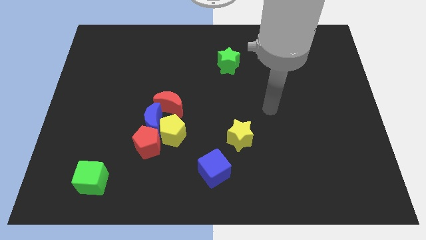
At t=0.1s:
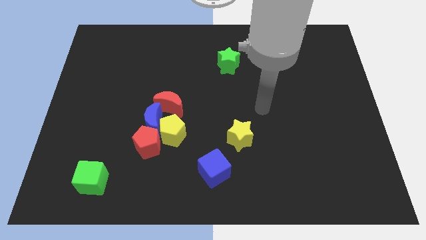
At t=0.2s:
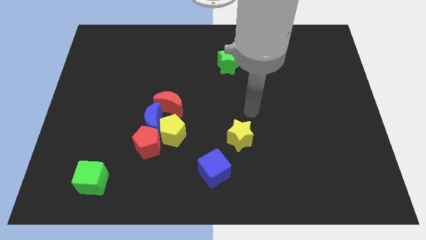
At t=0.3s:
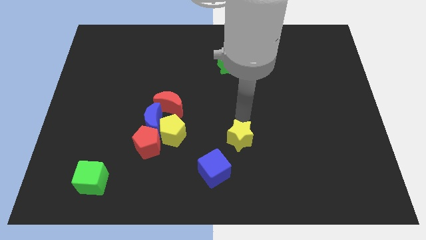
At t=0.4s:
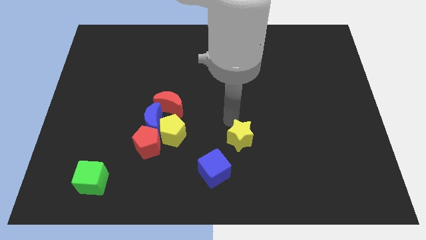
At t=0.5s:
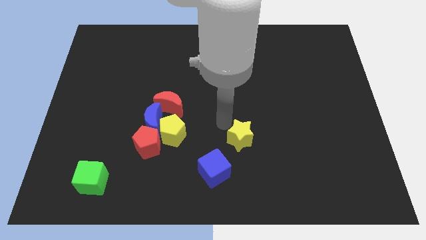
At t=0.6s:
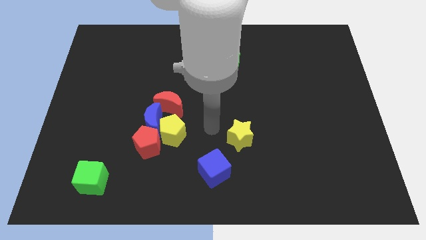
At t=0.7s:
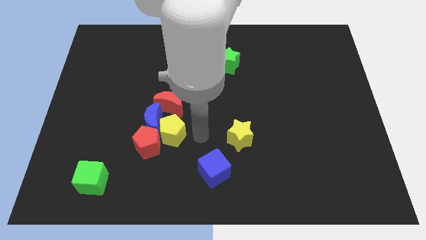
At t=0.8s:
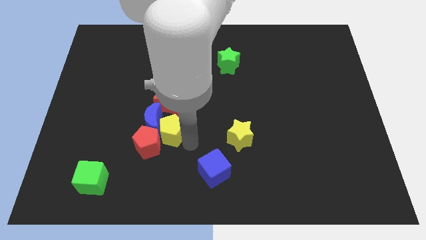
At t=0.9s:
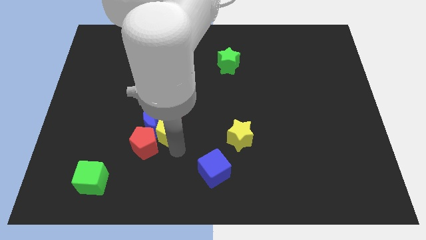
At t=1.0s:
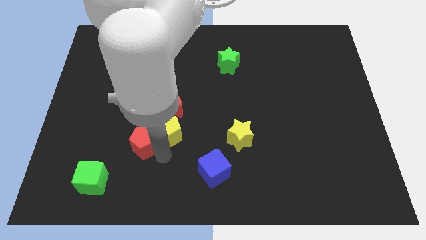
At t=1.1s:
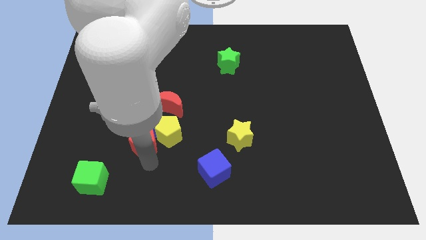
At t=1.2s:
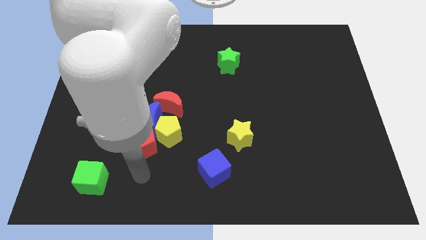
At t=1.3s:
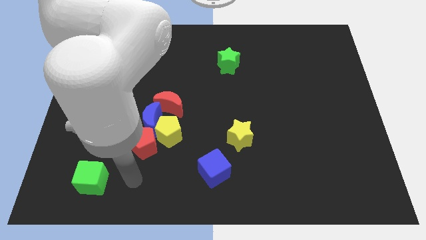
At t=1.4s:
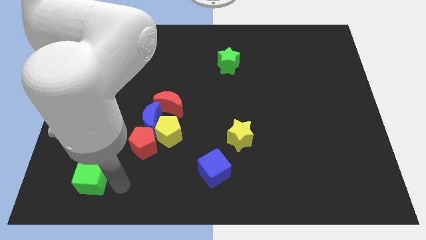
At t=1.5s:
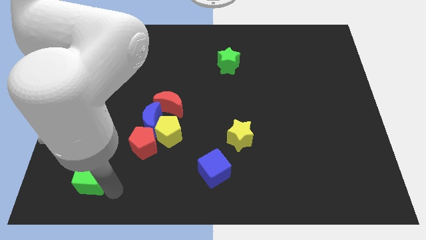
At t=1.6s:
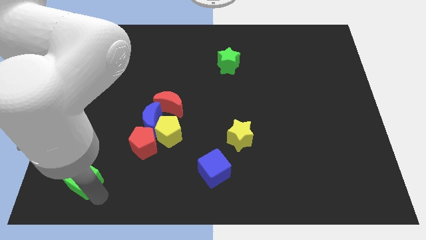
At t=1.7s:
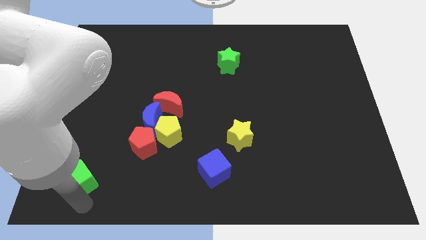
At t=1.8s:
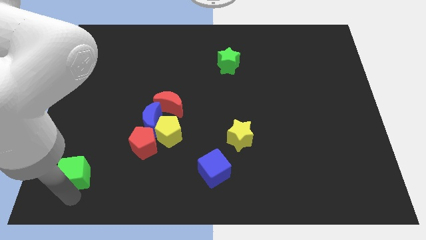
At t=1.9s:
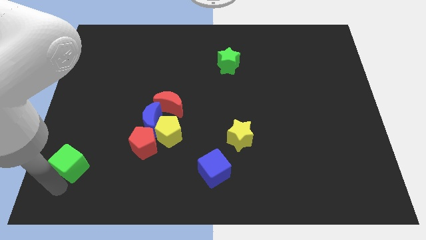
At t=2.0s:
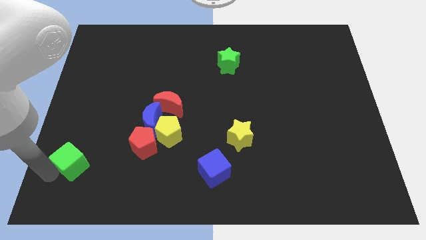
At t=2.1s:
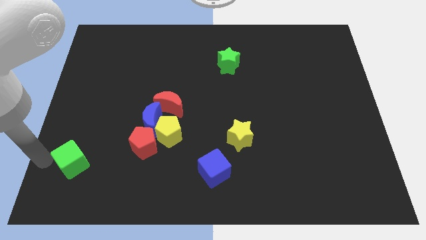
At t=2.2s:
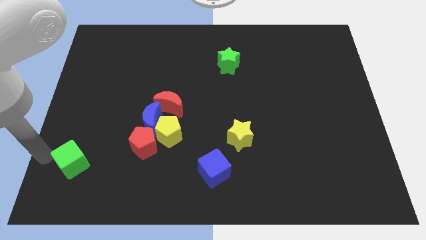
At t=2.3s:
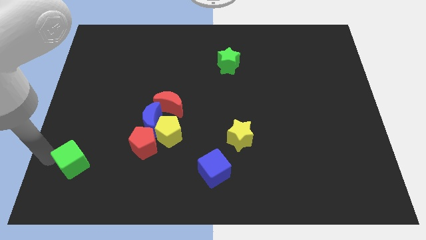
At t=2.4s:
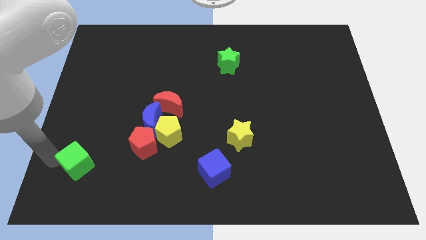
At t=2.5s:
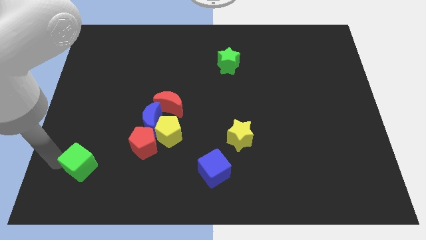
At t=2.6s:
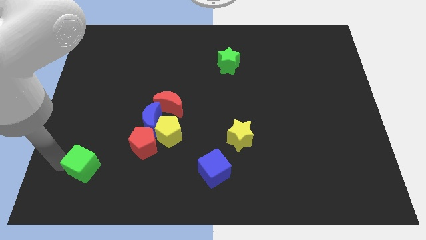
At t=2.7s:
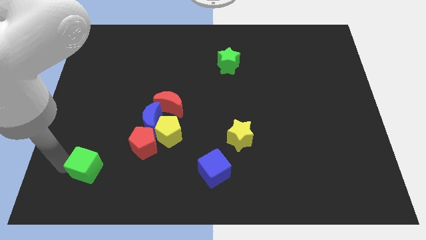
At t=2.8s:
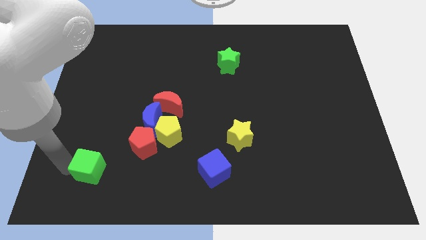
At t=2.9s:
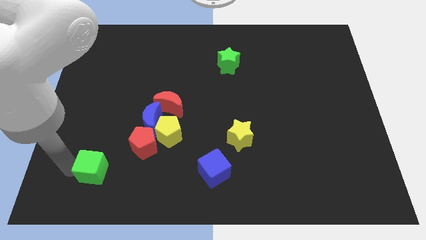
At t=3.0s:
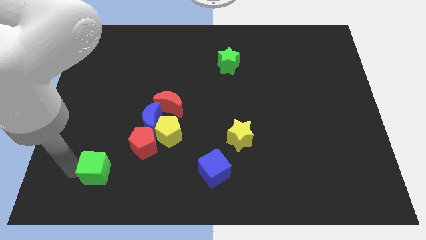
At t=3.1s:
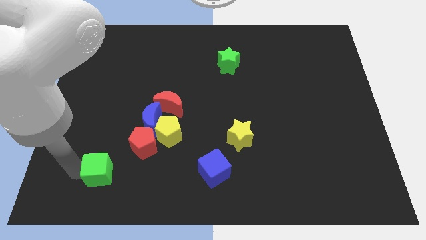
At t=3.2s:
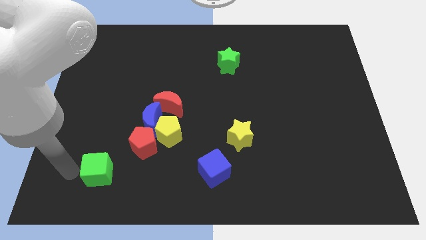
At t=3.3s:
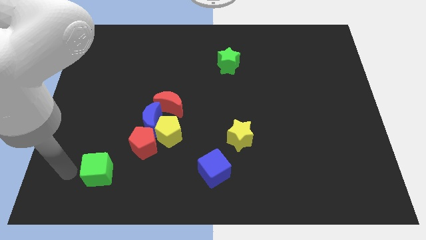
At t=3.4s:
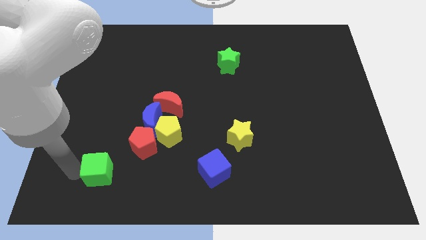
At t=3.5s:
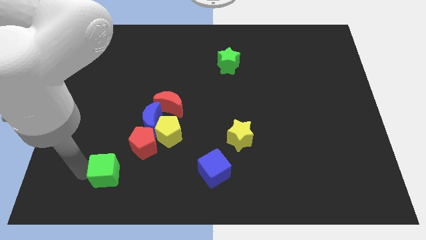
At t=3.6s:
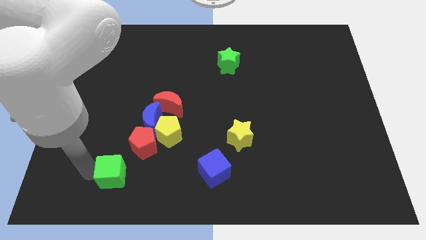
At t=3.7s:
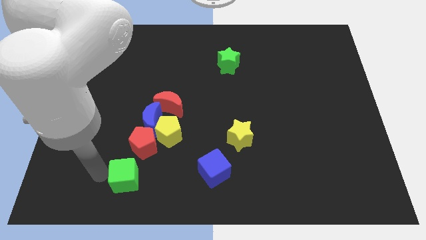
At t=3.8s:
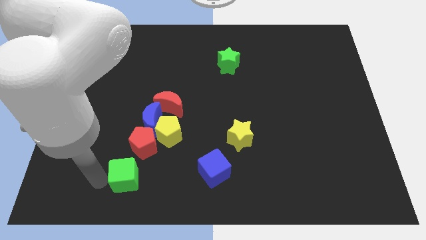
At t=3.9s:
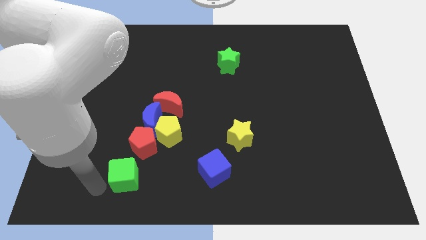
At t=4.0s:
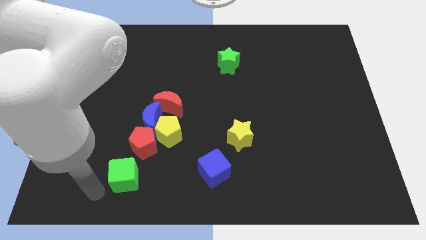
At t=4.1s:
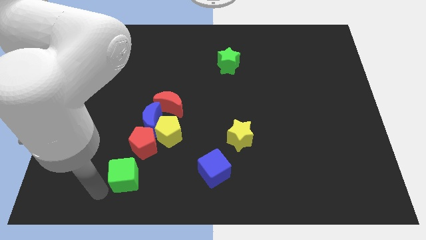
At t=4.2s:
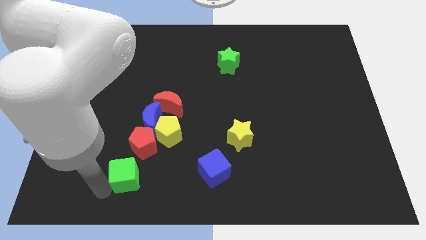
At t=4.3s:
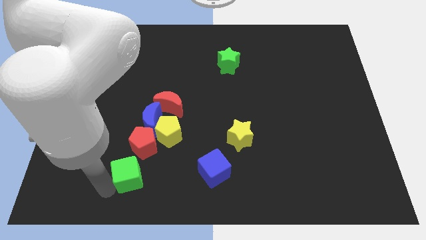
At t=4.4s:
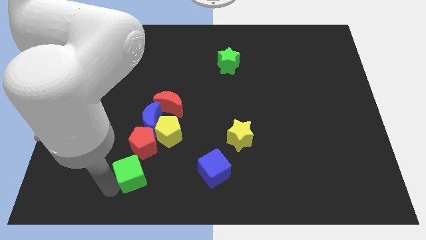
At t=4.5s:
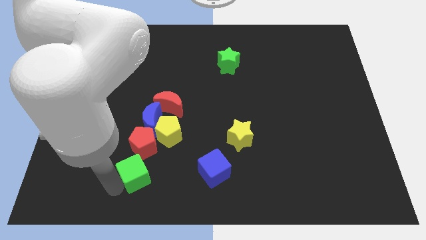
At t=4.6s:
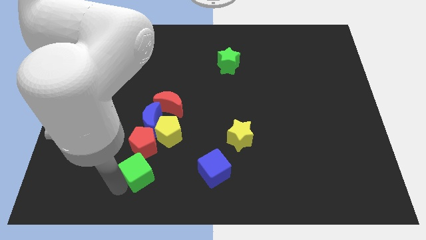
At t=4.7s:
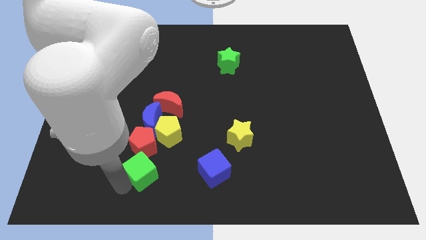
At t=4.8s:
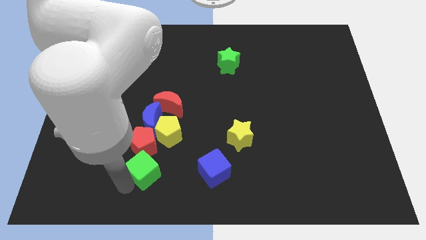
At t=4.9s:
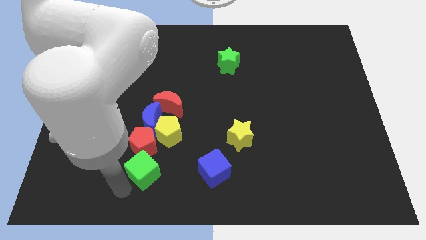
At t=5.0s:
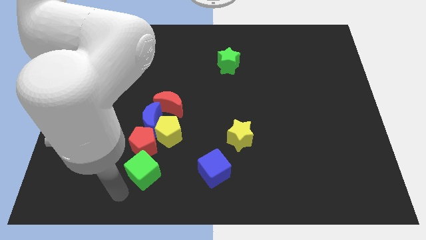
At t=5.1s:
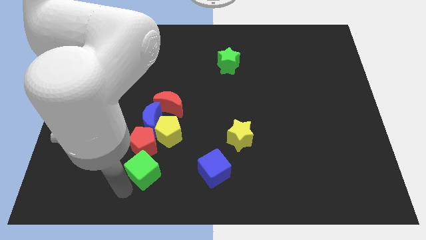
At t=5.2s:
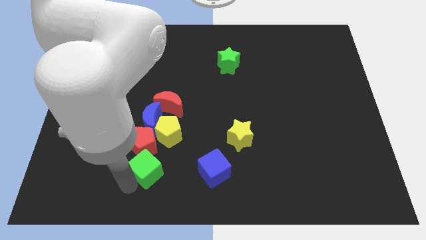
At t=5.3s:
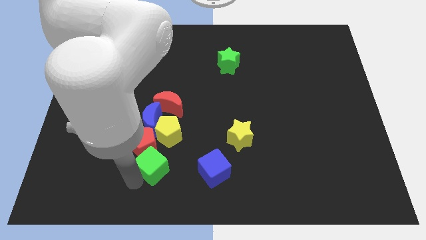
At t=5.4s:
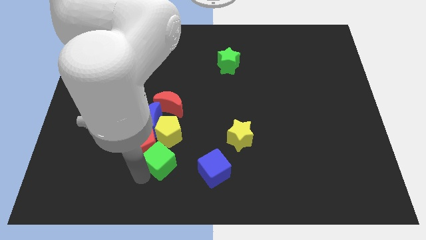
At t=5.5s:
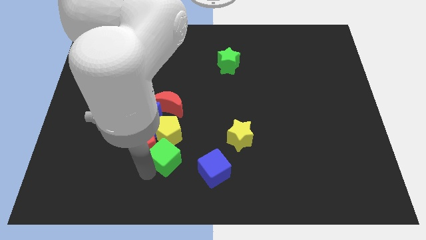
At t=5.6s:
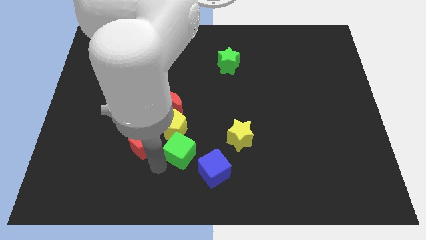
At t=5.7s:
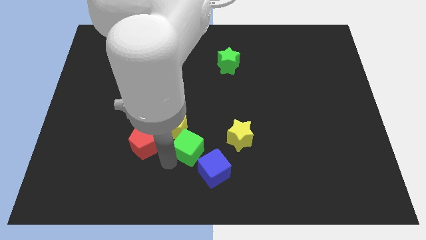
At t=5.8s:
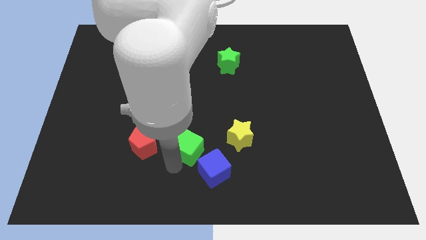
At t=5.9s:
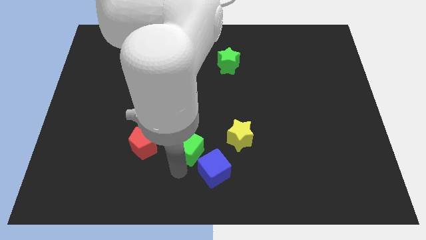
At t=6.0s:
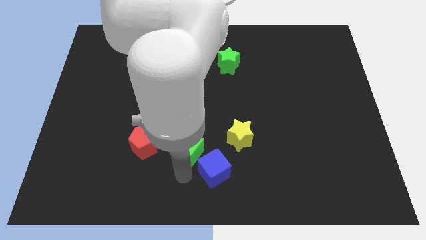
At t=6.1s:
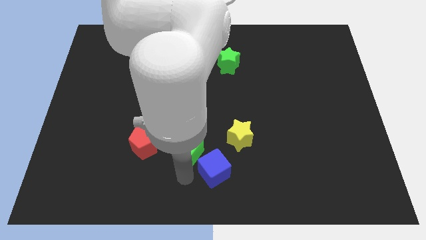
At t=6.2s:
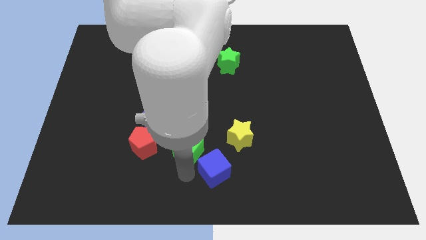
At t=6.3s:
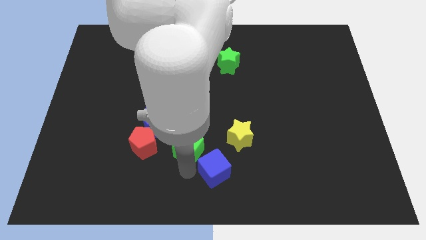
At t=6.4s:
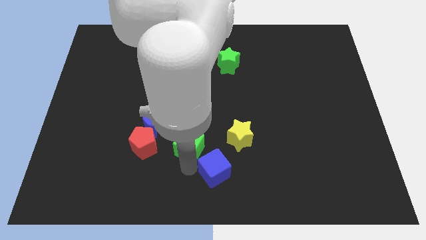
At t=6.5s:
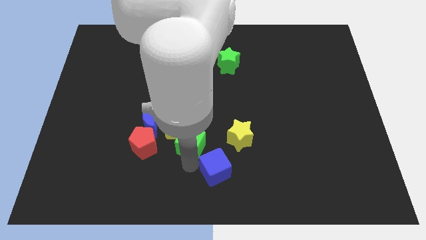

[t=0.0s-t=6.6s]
slide the green cube diagonally down and to the right of the red moon
